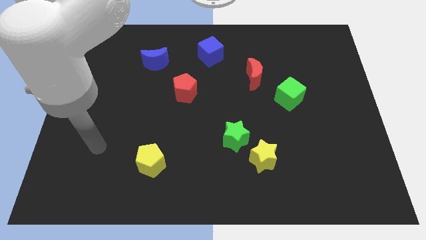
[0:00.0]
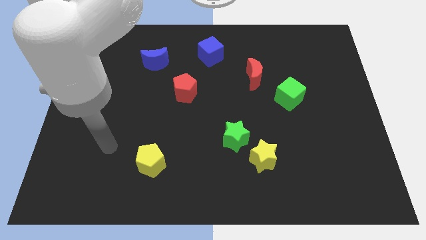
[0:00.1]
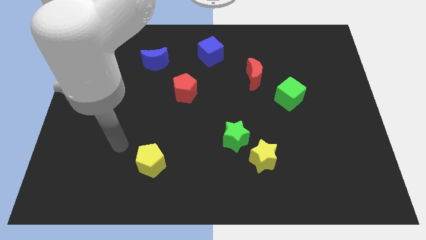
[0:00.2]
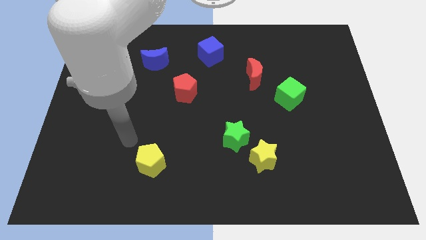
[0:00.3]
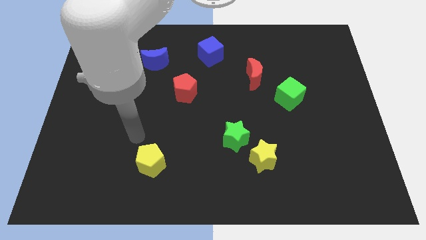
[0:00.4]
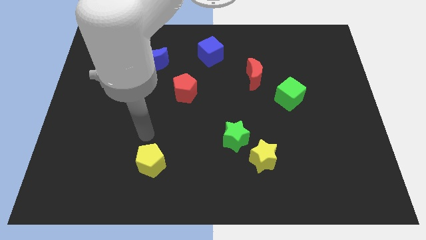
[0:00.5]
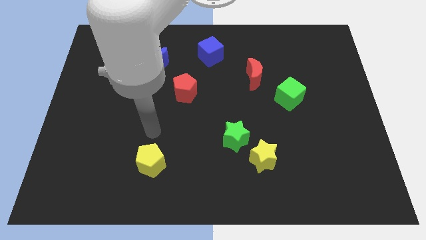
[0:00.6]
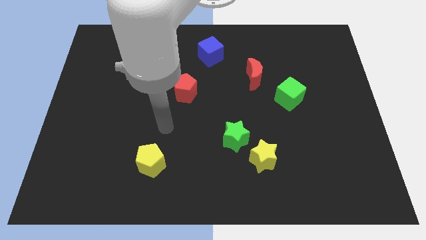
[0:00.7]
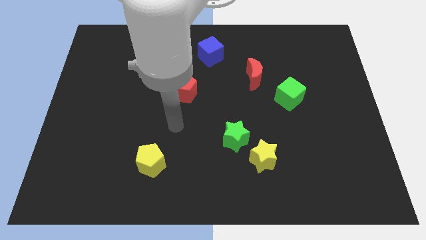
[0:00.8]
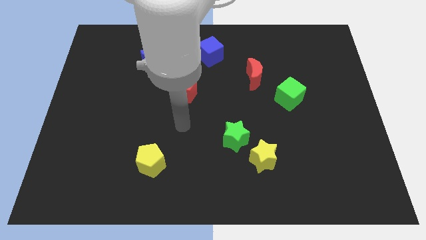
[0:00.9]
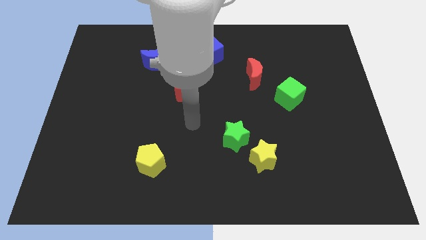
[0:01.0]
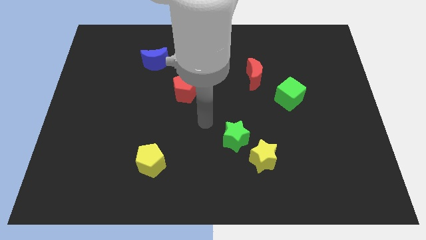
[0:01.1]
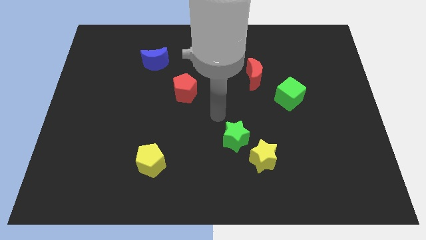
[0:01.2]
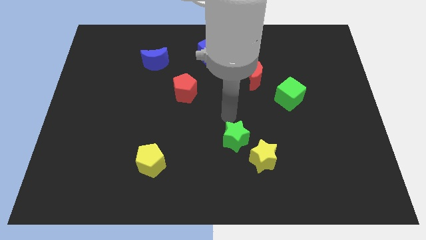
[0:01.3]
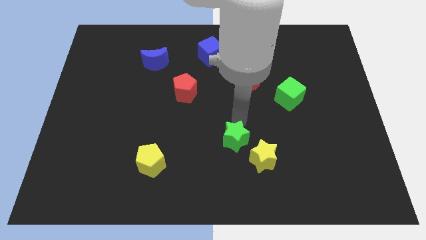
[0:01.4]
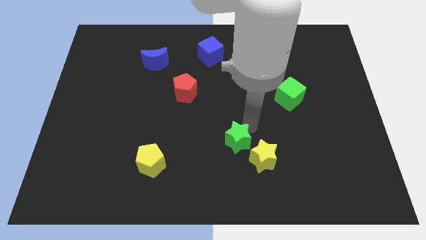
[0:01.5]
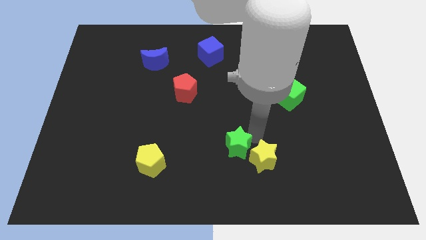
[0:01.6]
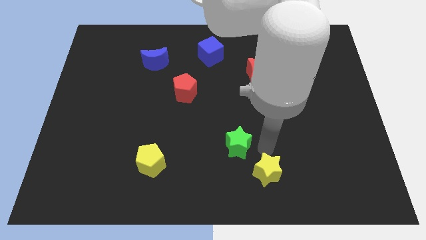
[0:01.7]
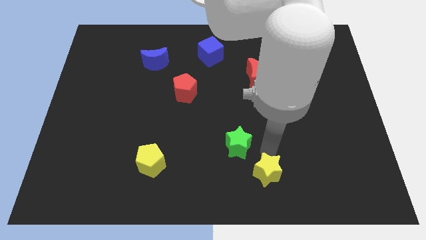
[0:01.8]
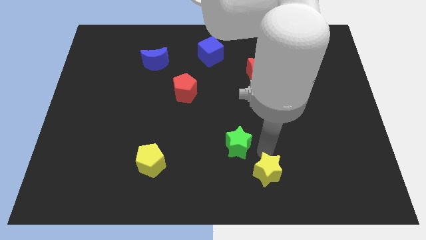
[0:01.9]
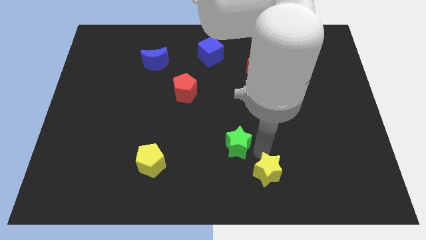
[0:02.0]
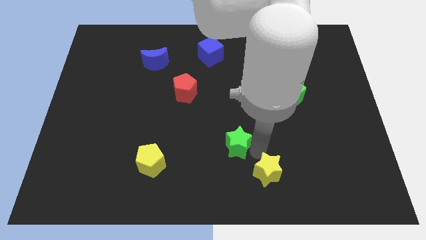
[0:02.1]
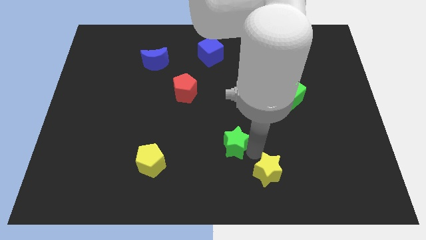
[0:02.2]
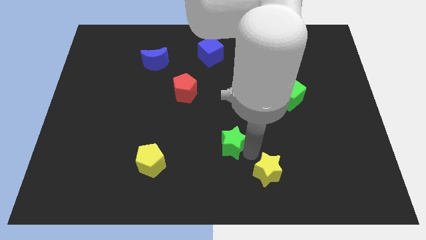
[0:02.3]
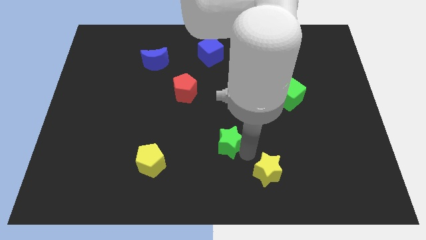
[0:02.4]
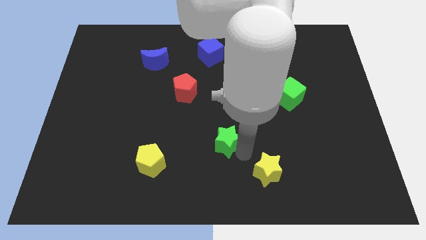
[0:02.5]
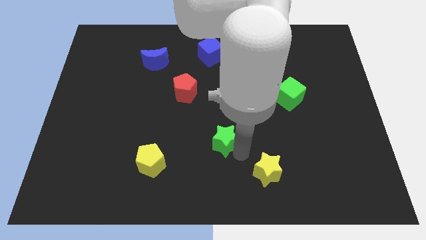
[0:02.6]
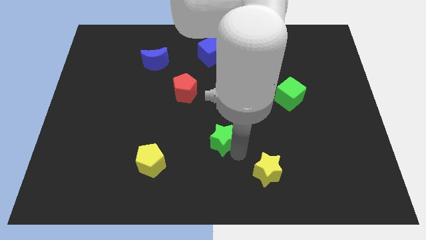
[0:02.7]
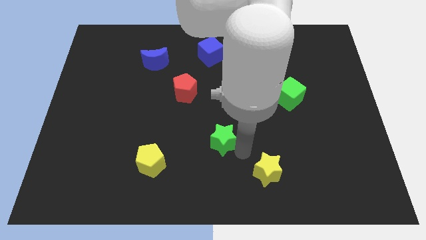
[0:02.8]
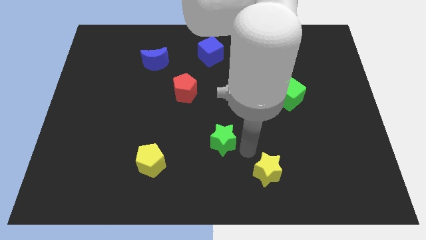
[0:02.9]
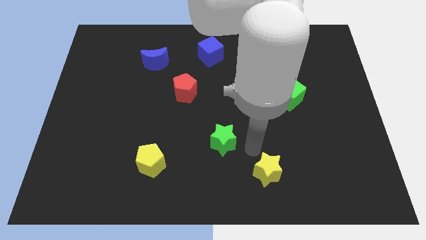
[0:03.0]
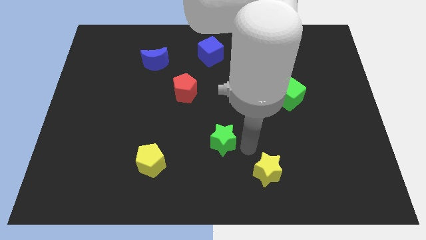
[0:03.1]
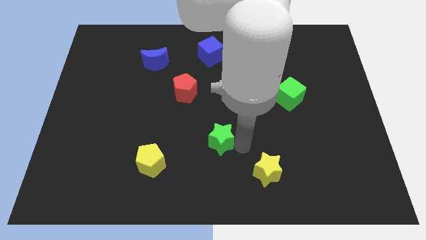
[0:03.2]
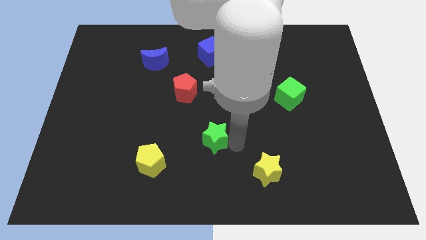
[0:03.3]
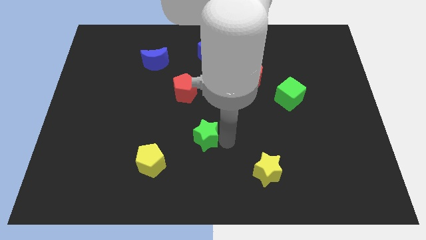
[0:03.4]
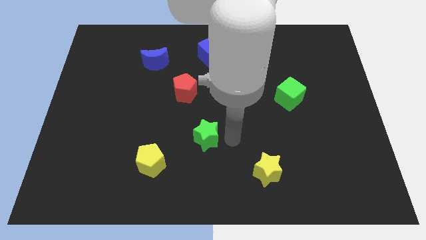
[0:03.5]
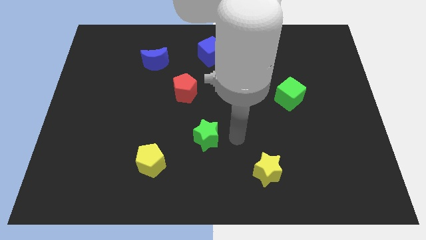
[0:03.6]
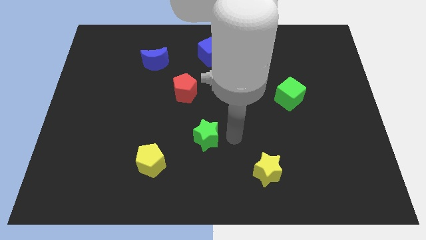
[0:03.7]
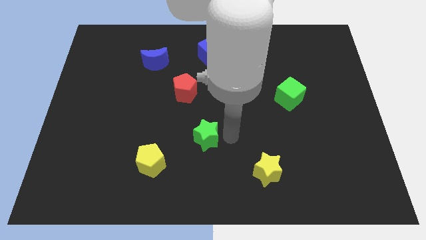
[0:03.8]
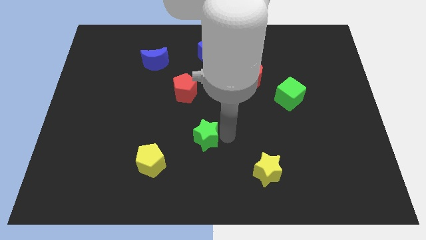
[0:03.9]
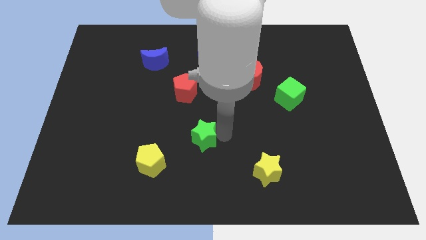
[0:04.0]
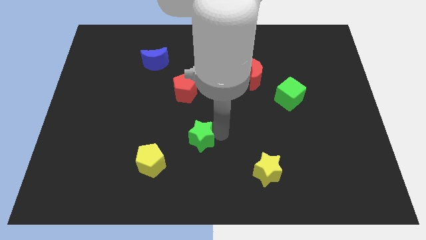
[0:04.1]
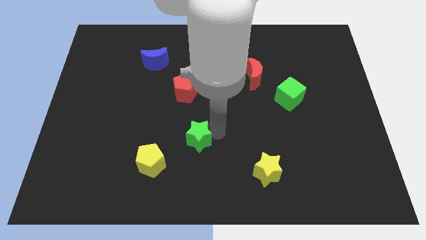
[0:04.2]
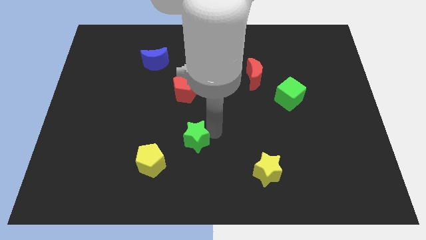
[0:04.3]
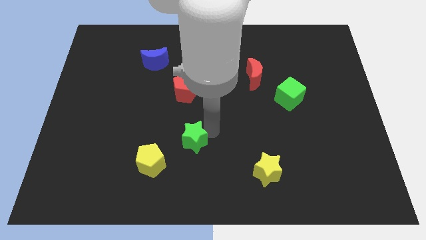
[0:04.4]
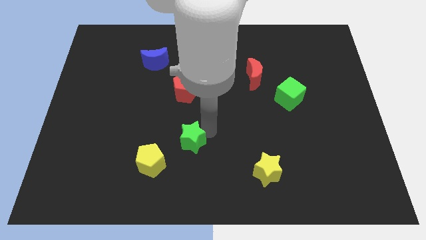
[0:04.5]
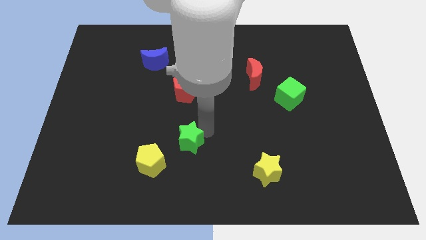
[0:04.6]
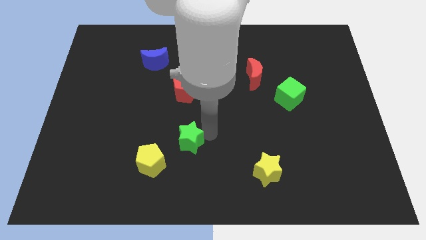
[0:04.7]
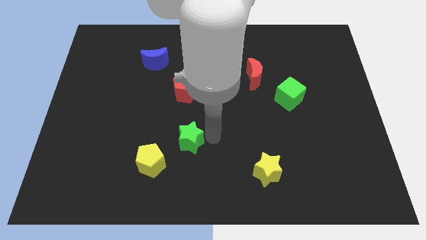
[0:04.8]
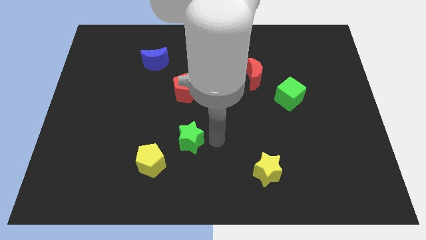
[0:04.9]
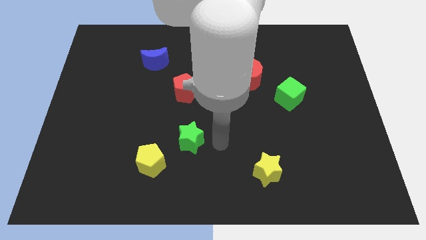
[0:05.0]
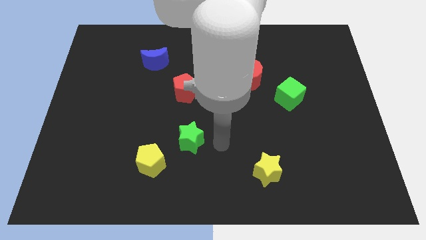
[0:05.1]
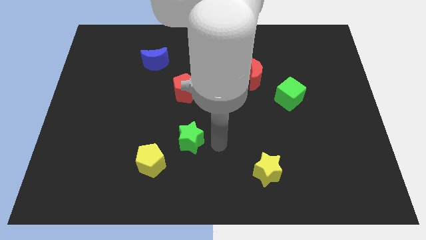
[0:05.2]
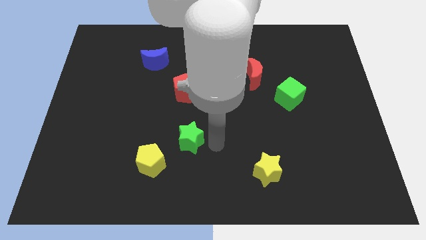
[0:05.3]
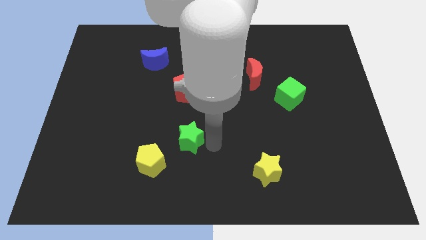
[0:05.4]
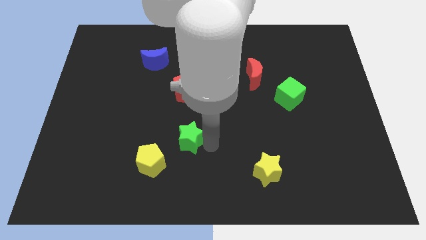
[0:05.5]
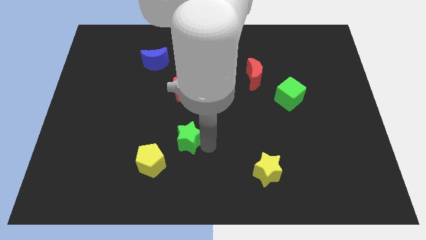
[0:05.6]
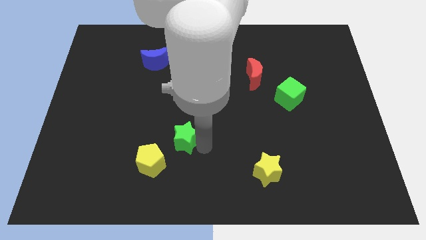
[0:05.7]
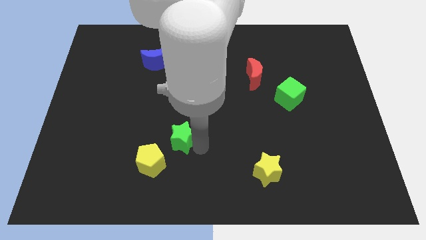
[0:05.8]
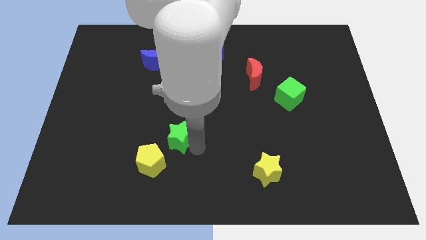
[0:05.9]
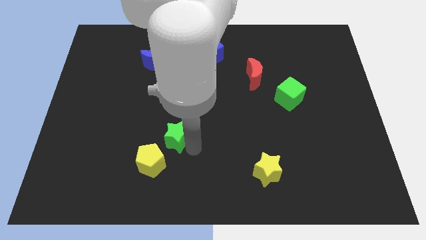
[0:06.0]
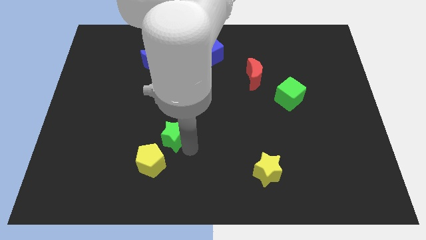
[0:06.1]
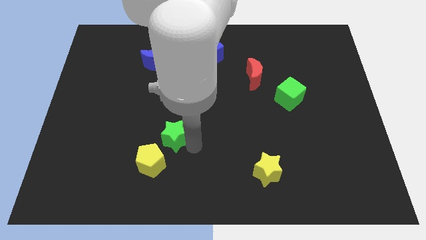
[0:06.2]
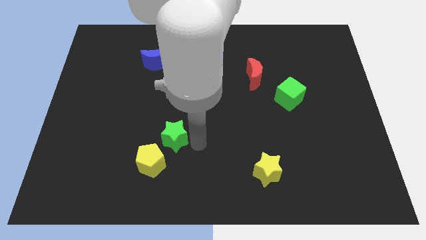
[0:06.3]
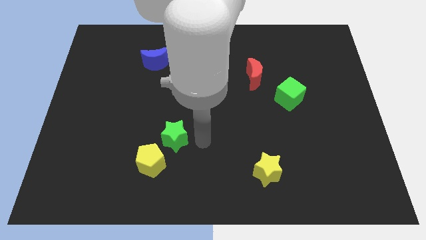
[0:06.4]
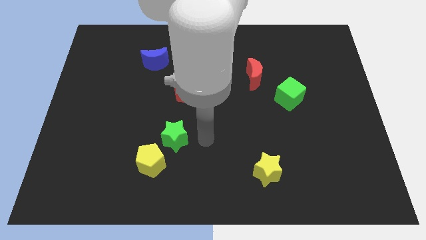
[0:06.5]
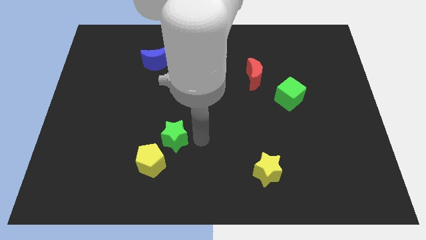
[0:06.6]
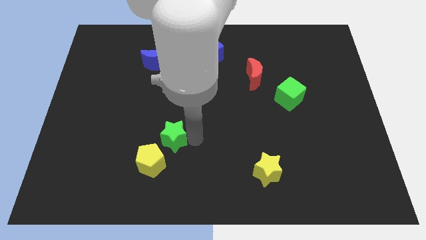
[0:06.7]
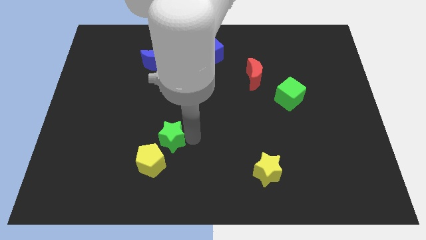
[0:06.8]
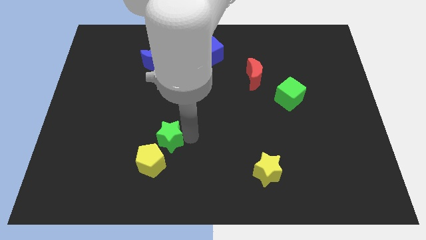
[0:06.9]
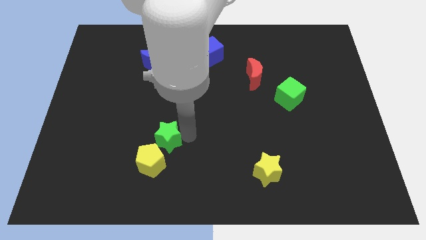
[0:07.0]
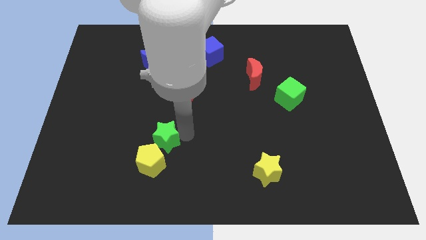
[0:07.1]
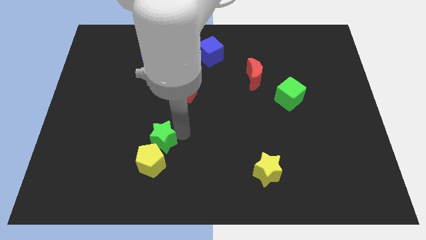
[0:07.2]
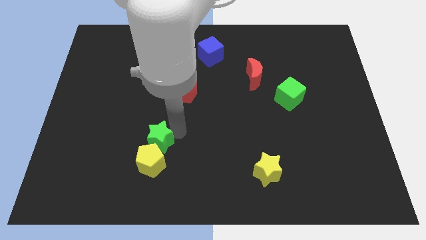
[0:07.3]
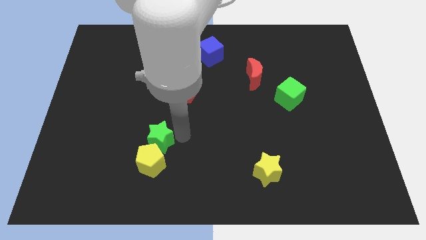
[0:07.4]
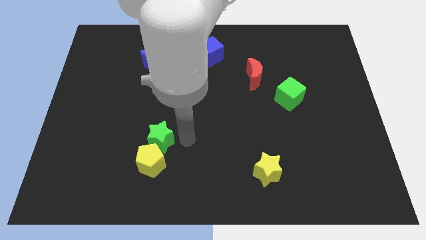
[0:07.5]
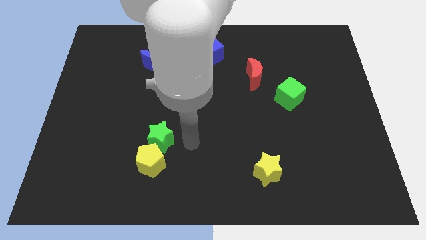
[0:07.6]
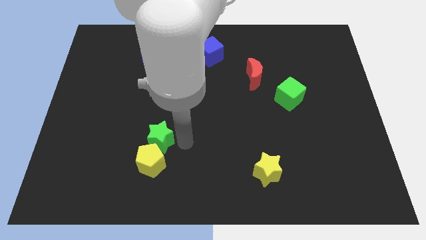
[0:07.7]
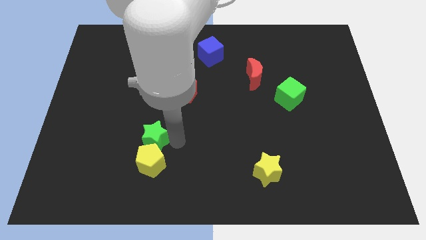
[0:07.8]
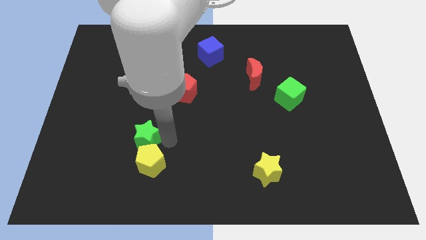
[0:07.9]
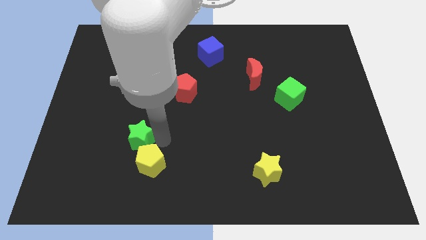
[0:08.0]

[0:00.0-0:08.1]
move the green star to the left
